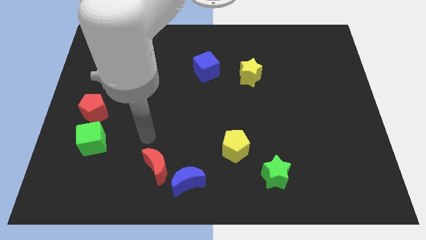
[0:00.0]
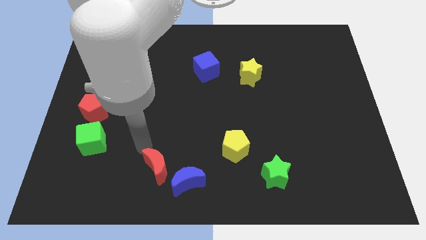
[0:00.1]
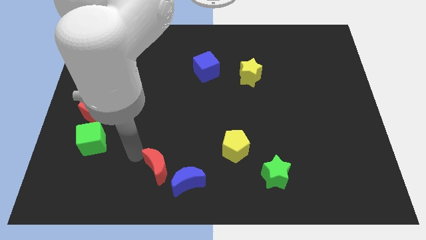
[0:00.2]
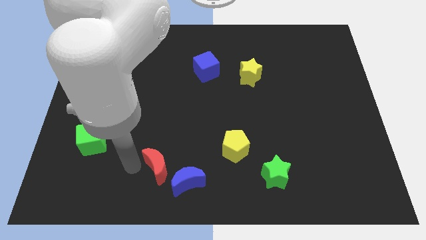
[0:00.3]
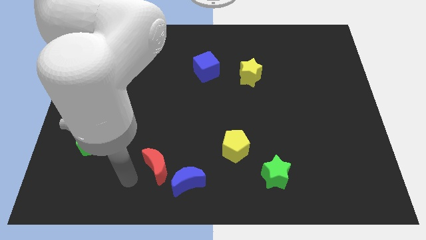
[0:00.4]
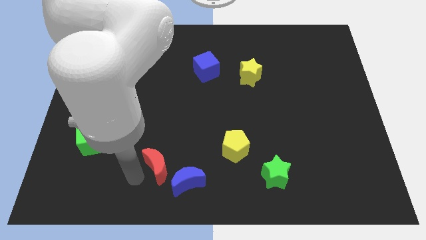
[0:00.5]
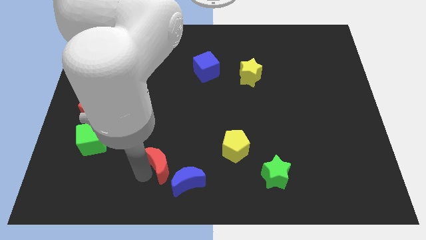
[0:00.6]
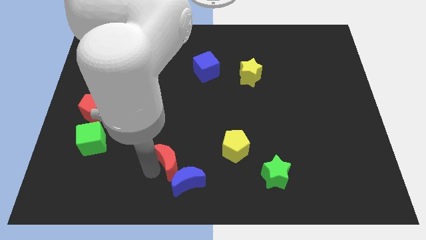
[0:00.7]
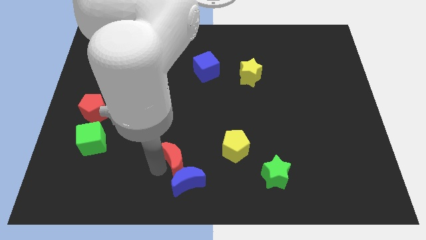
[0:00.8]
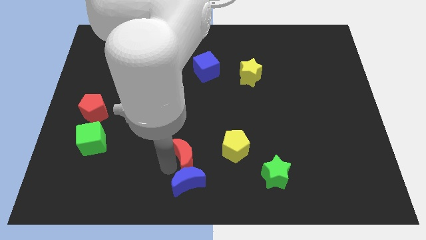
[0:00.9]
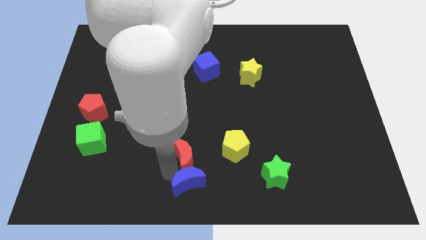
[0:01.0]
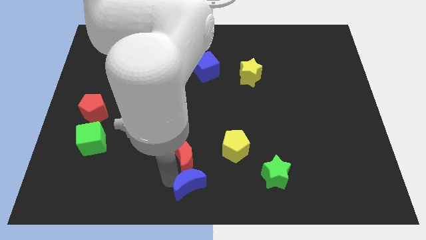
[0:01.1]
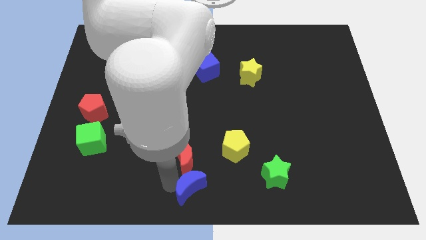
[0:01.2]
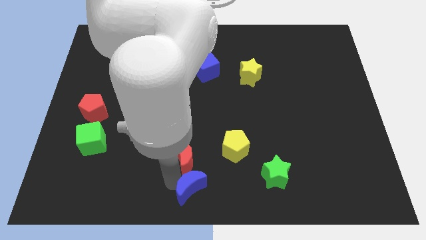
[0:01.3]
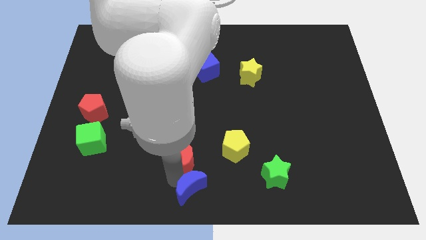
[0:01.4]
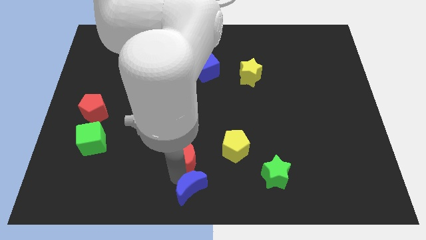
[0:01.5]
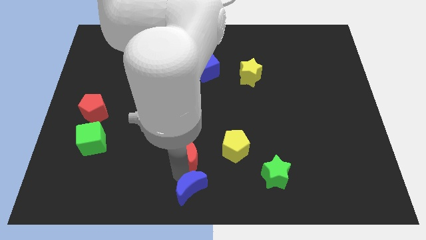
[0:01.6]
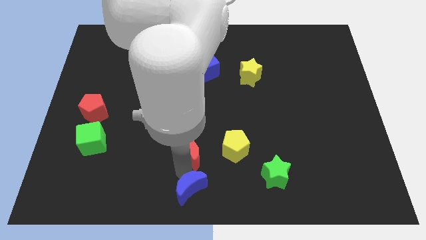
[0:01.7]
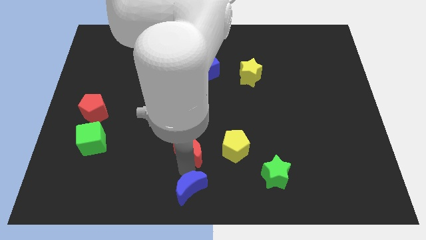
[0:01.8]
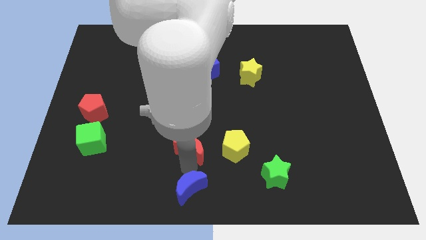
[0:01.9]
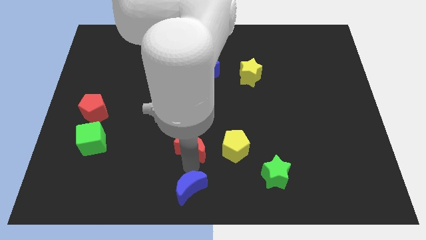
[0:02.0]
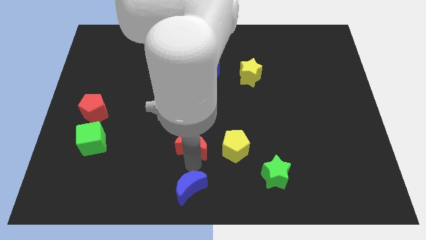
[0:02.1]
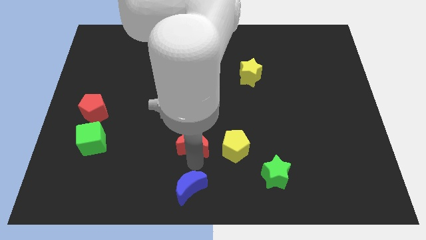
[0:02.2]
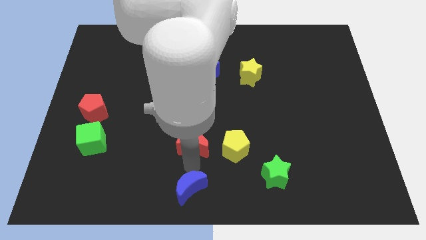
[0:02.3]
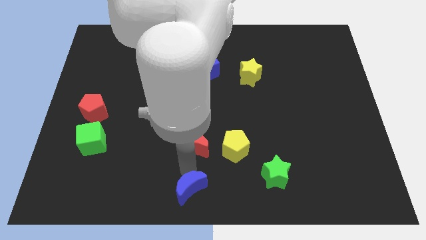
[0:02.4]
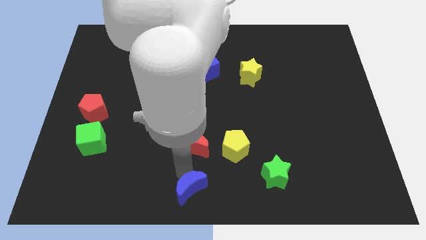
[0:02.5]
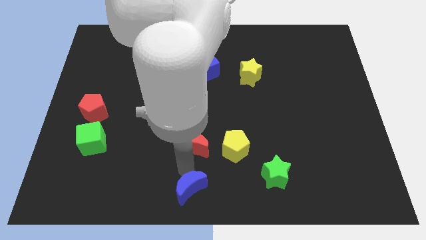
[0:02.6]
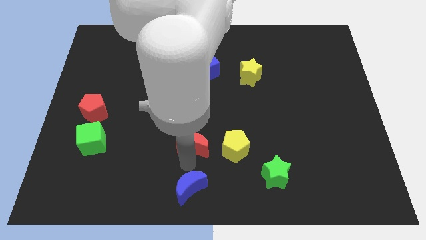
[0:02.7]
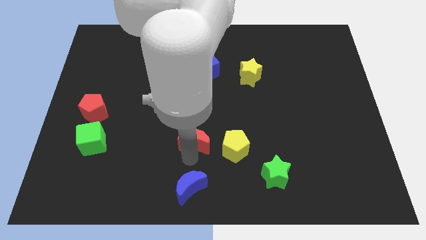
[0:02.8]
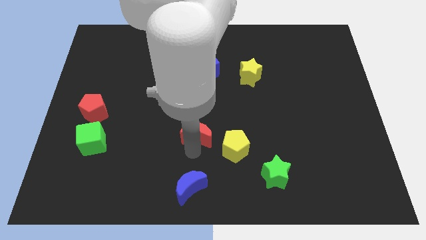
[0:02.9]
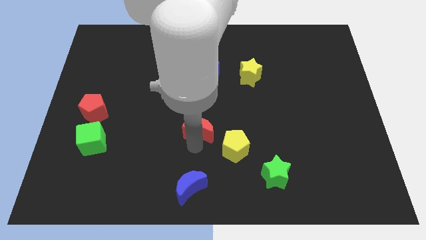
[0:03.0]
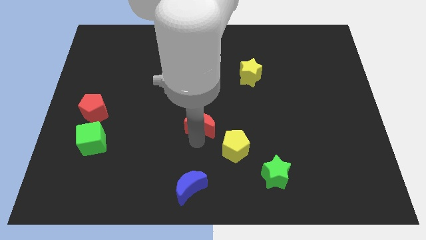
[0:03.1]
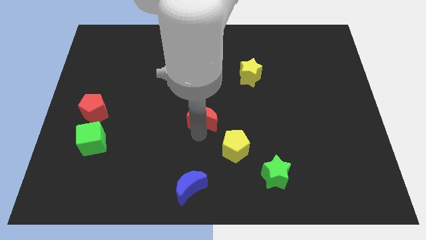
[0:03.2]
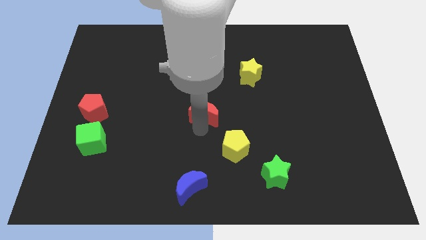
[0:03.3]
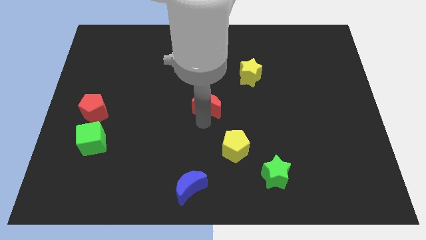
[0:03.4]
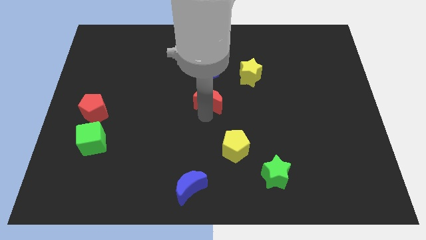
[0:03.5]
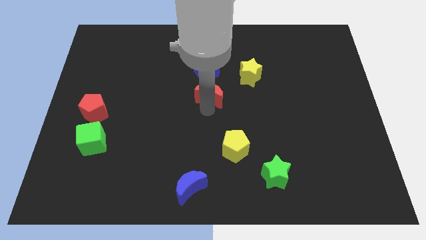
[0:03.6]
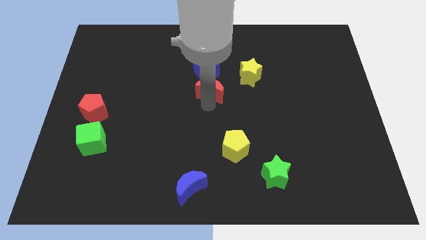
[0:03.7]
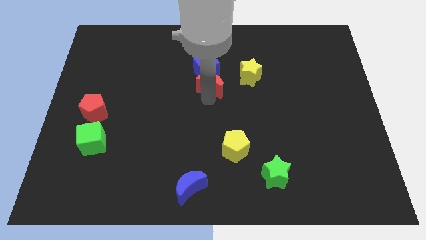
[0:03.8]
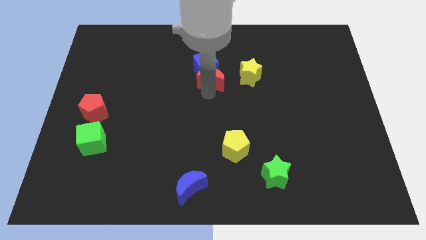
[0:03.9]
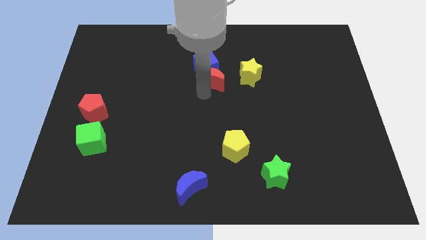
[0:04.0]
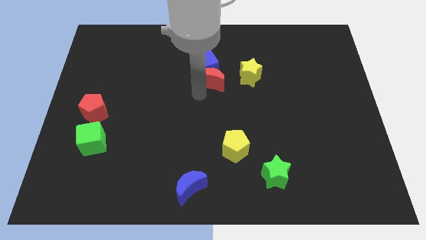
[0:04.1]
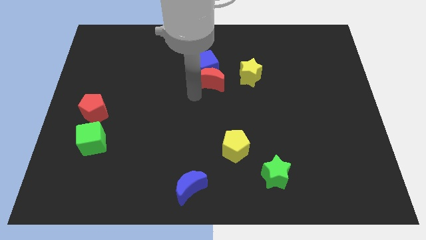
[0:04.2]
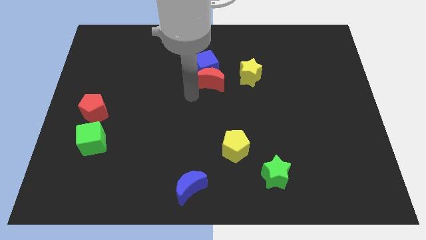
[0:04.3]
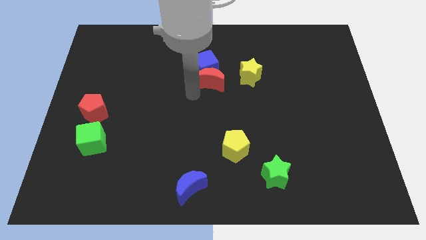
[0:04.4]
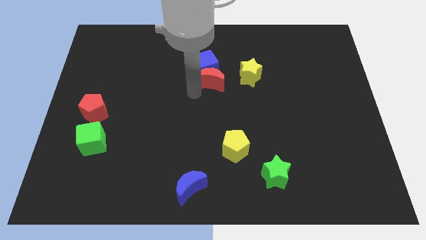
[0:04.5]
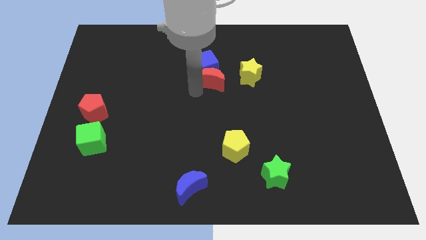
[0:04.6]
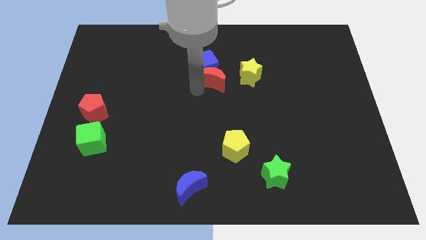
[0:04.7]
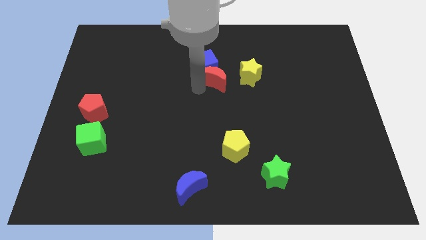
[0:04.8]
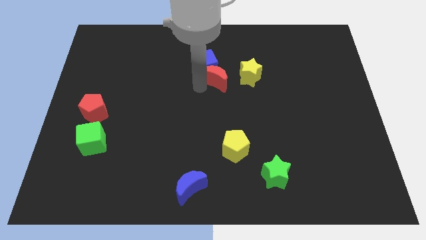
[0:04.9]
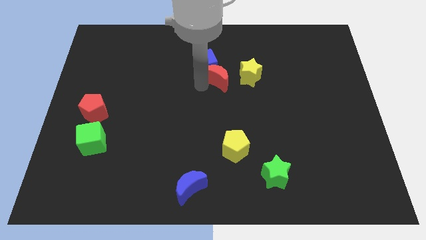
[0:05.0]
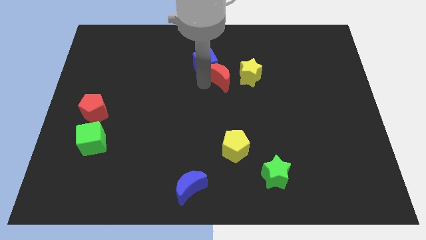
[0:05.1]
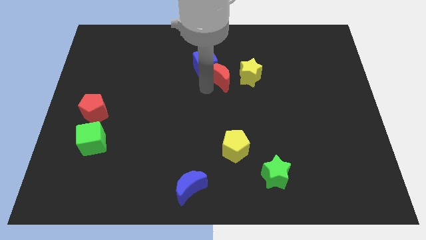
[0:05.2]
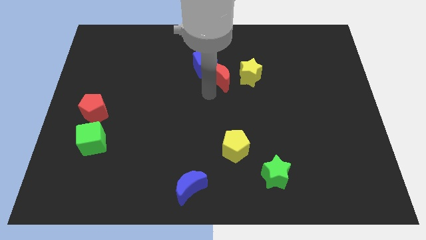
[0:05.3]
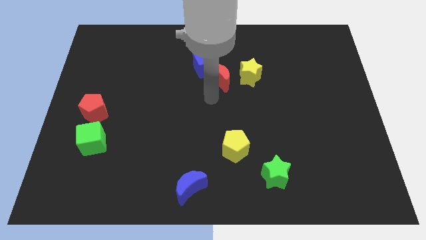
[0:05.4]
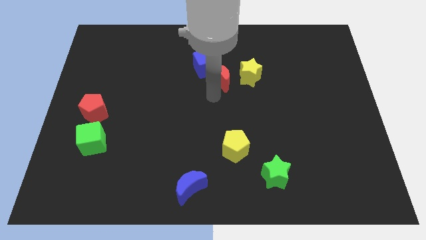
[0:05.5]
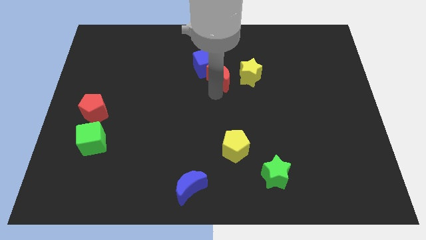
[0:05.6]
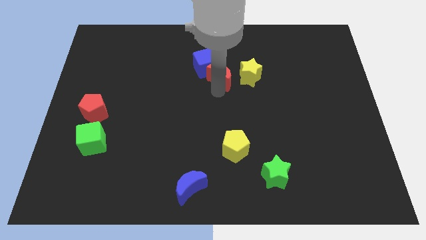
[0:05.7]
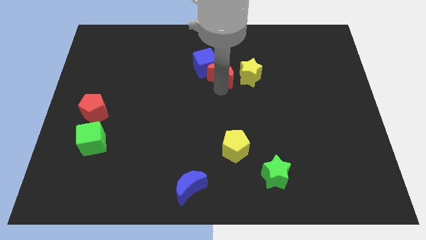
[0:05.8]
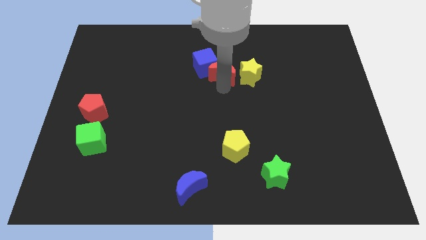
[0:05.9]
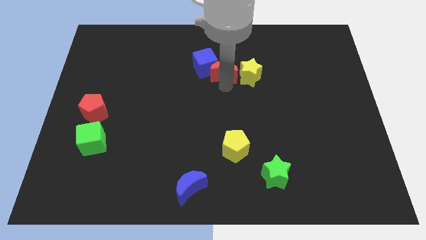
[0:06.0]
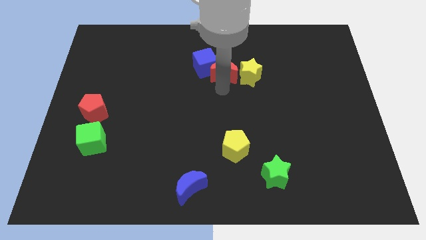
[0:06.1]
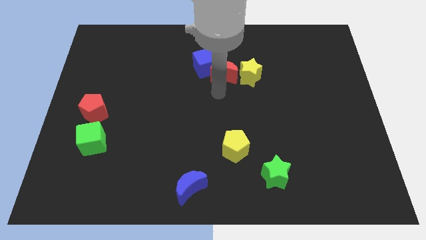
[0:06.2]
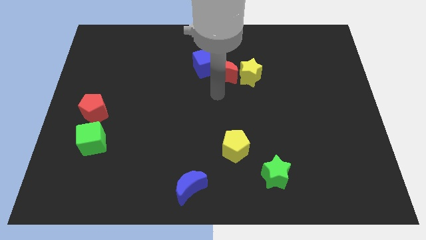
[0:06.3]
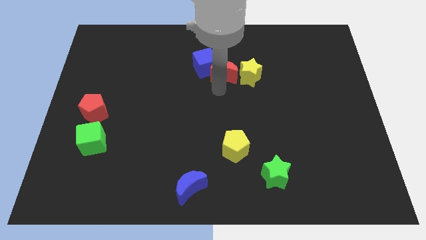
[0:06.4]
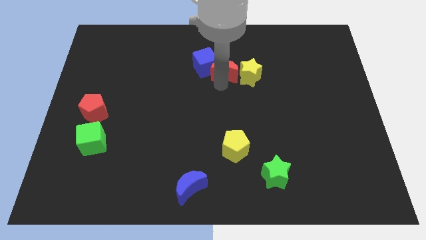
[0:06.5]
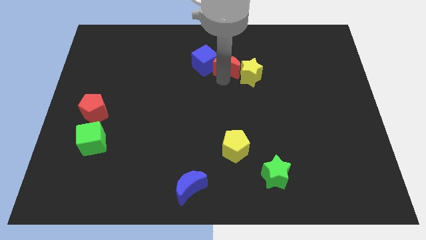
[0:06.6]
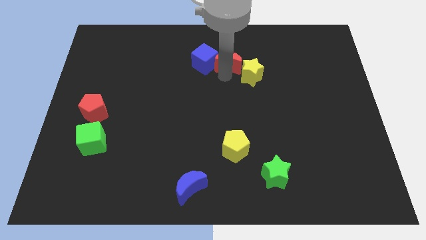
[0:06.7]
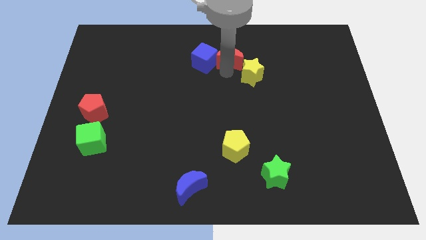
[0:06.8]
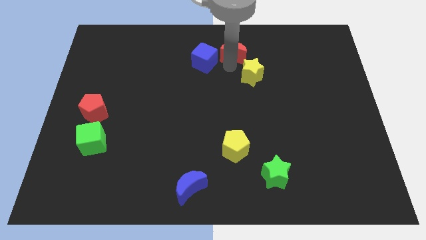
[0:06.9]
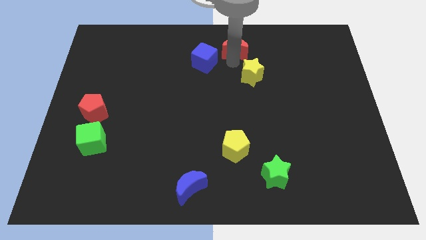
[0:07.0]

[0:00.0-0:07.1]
move the red moon to the towards your base
